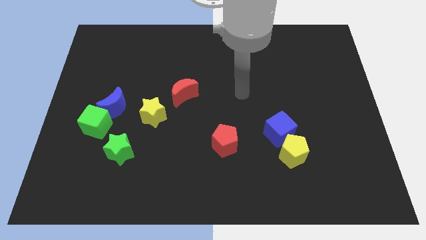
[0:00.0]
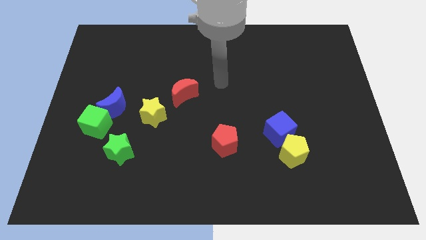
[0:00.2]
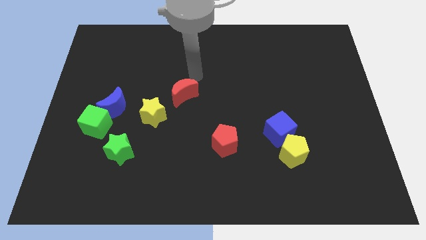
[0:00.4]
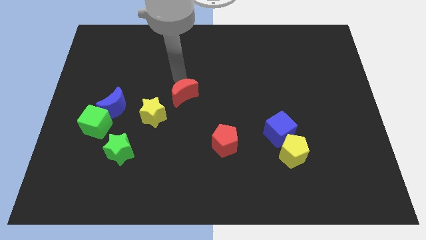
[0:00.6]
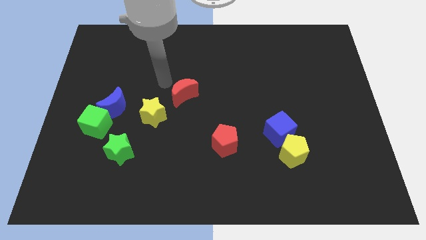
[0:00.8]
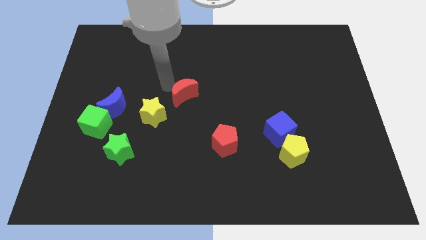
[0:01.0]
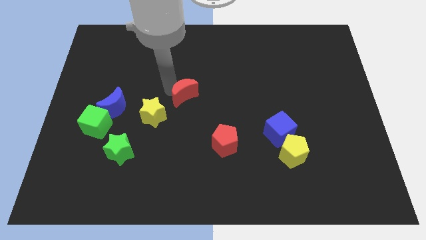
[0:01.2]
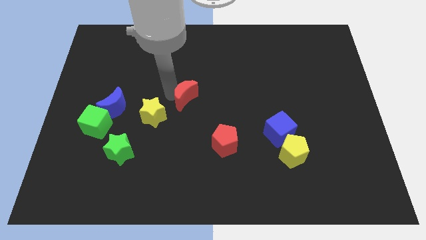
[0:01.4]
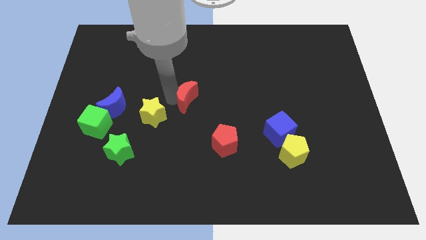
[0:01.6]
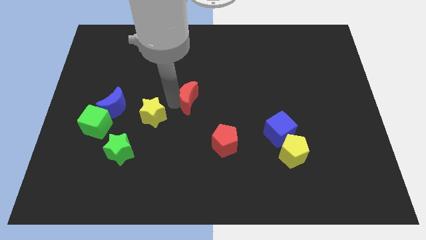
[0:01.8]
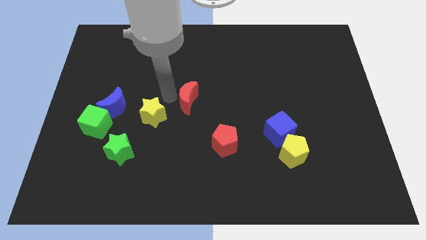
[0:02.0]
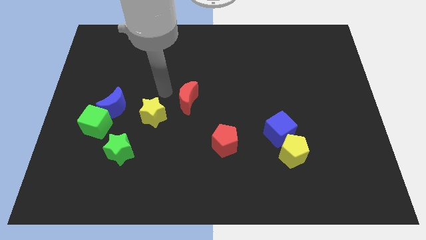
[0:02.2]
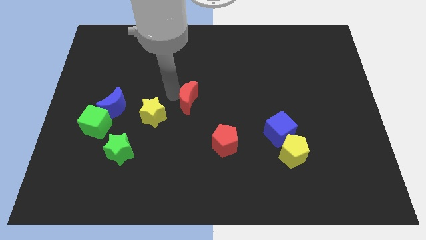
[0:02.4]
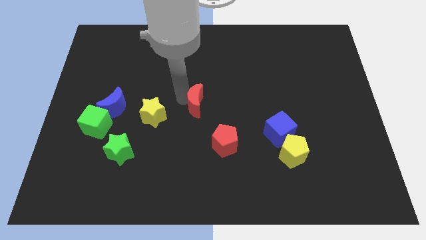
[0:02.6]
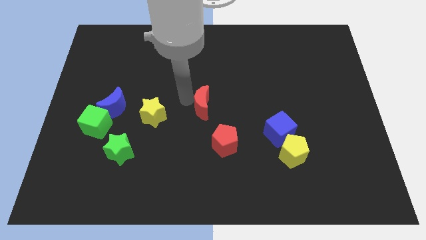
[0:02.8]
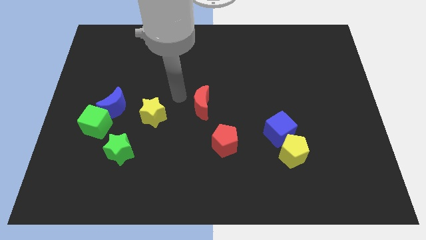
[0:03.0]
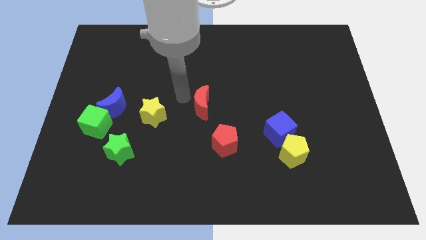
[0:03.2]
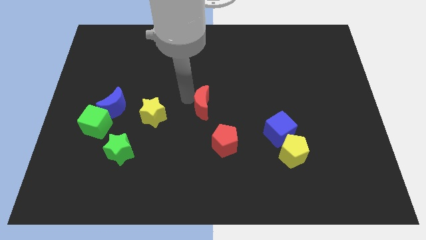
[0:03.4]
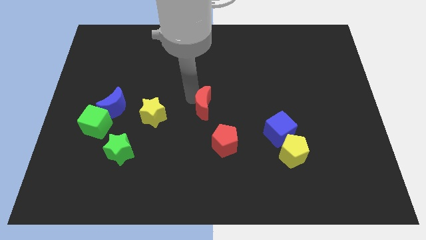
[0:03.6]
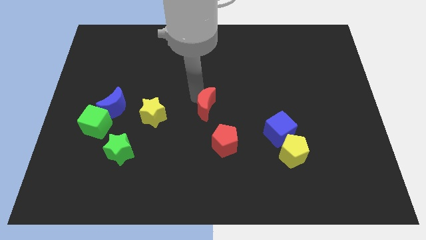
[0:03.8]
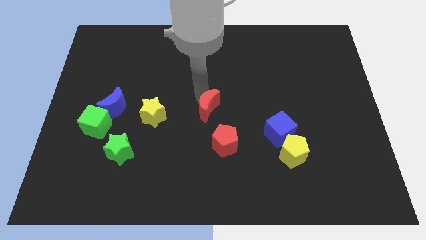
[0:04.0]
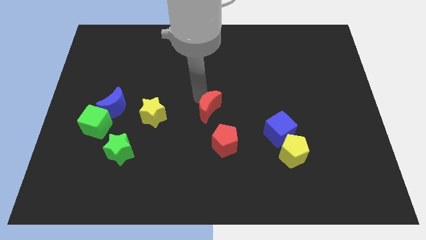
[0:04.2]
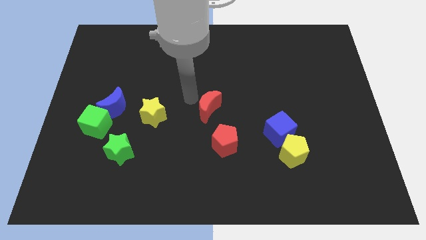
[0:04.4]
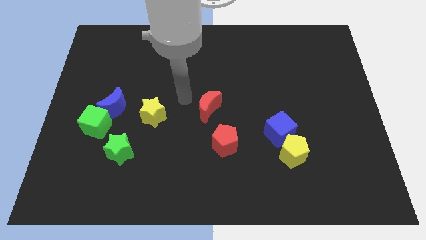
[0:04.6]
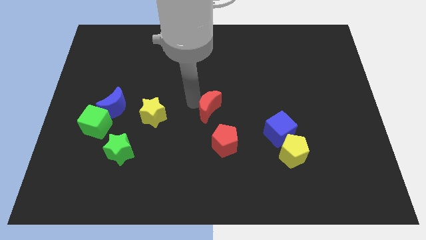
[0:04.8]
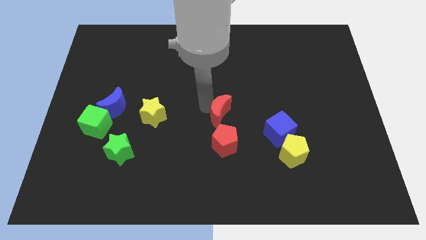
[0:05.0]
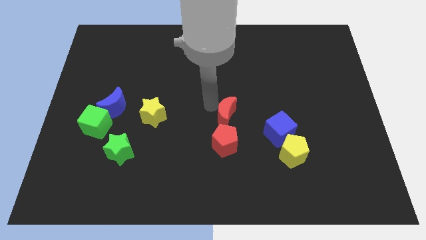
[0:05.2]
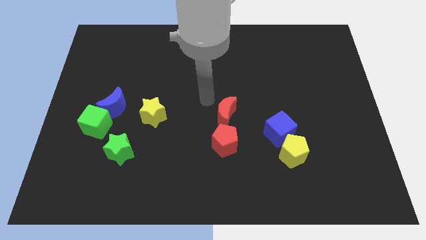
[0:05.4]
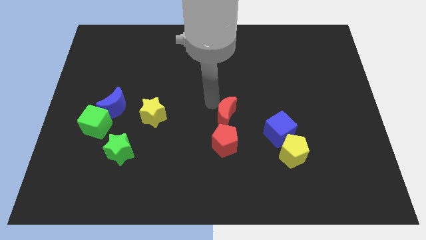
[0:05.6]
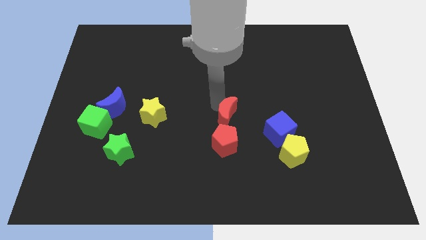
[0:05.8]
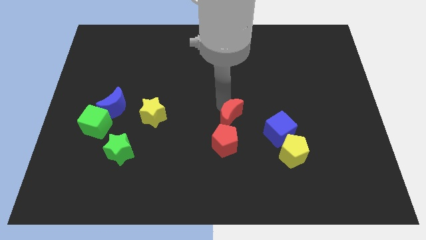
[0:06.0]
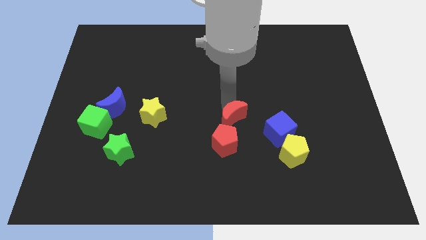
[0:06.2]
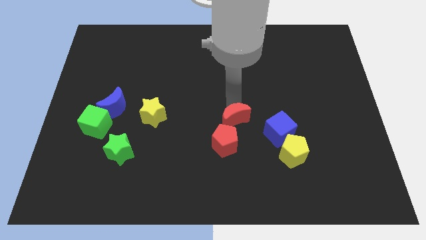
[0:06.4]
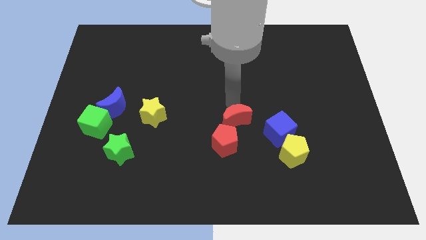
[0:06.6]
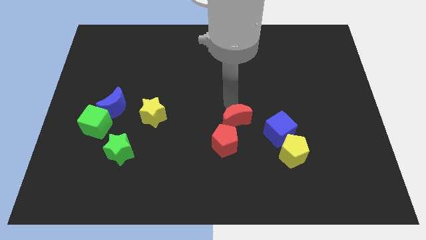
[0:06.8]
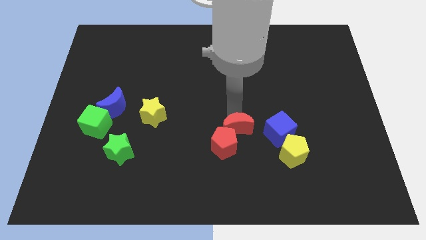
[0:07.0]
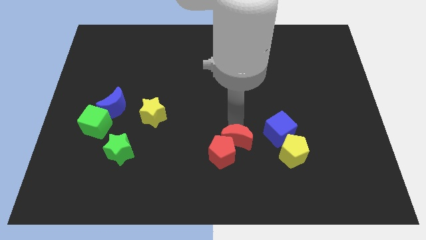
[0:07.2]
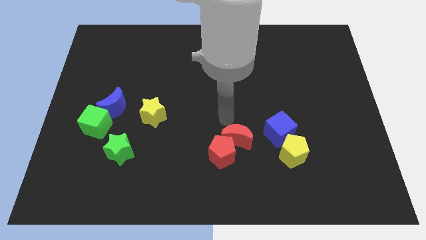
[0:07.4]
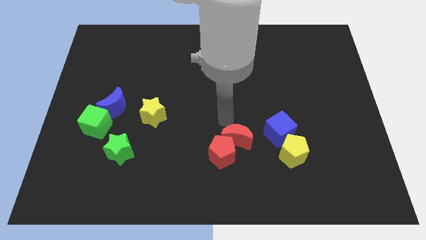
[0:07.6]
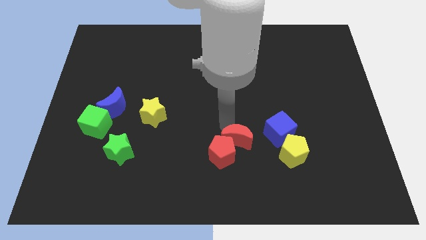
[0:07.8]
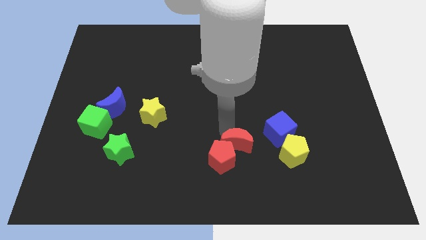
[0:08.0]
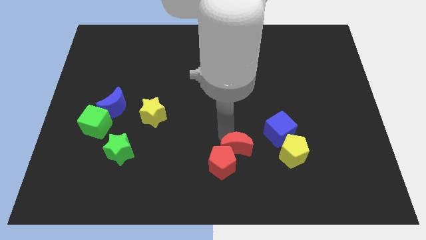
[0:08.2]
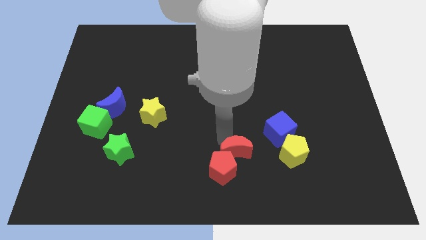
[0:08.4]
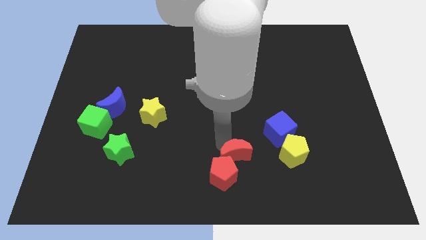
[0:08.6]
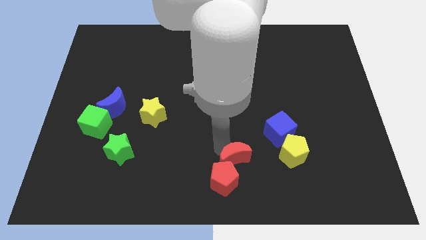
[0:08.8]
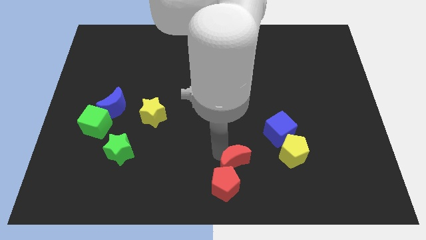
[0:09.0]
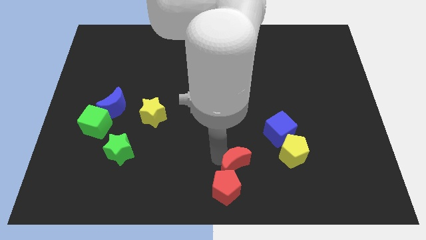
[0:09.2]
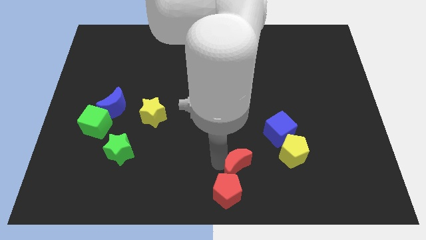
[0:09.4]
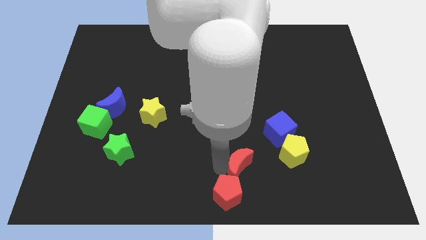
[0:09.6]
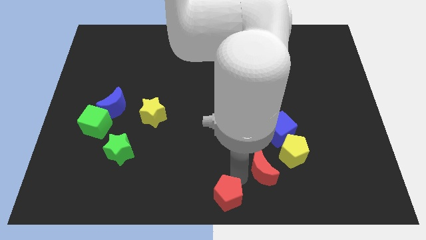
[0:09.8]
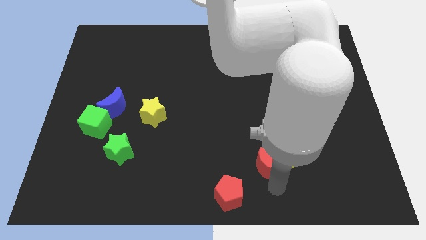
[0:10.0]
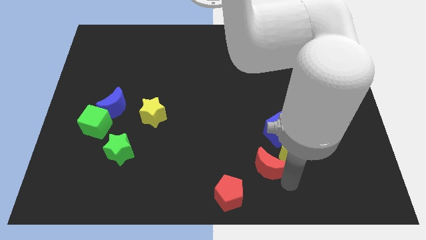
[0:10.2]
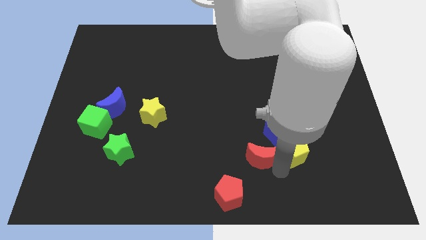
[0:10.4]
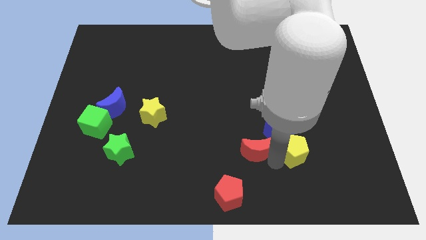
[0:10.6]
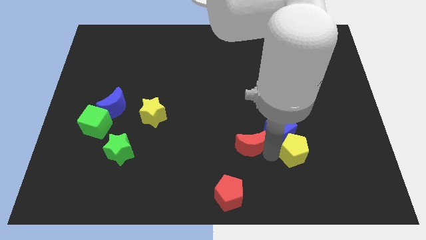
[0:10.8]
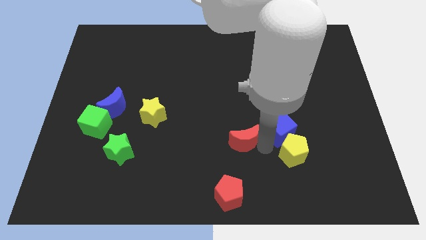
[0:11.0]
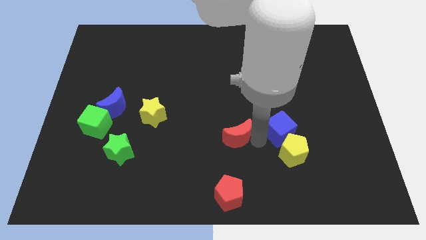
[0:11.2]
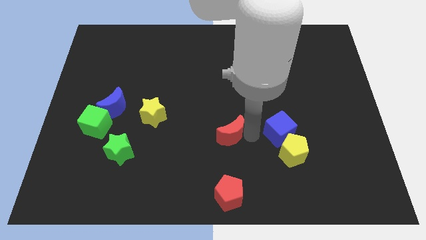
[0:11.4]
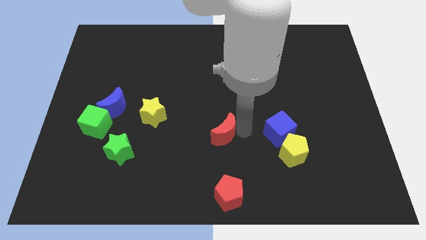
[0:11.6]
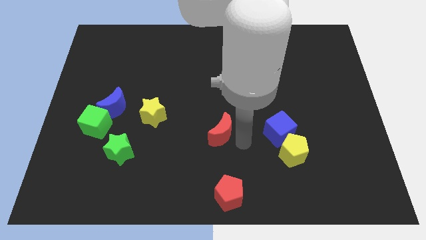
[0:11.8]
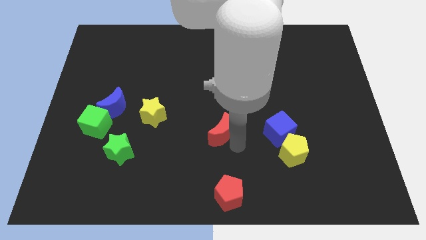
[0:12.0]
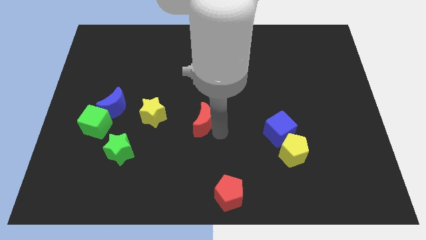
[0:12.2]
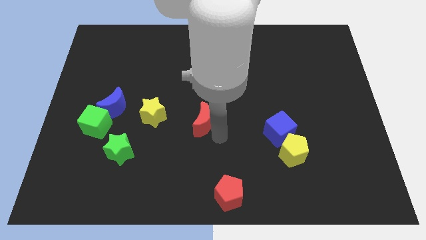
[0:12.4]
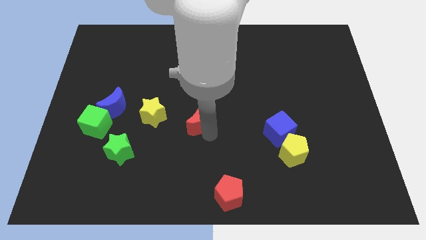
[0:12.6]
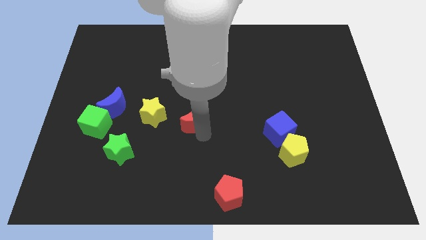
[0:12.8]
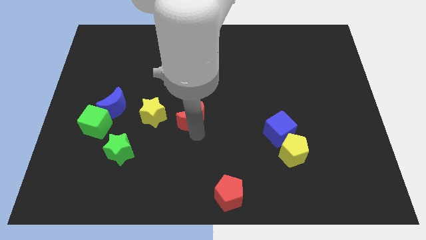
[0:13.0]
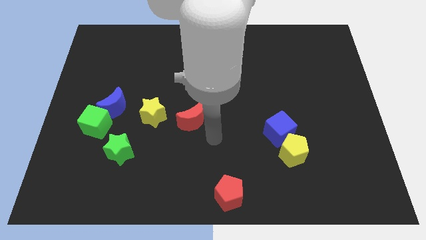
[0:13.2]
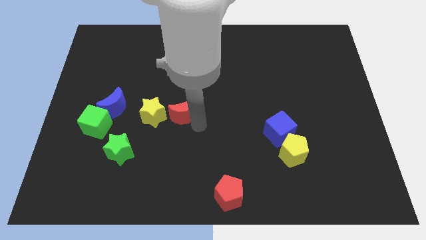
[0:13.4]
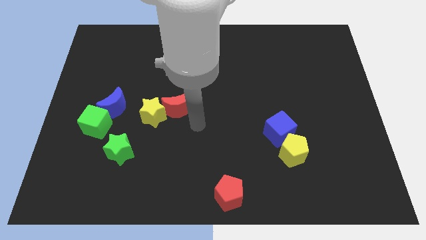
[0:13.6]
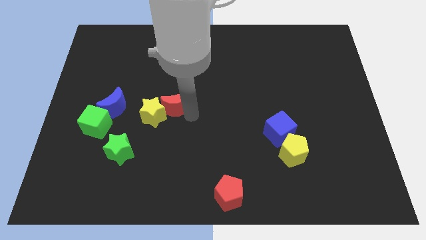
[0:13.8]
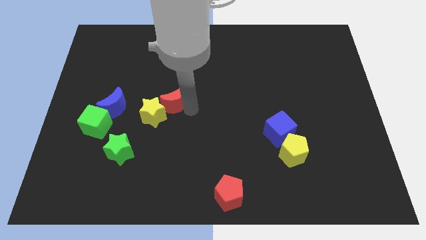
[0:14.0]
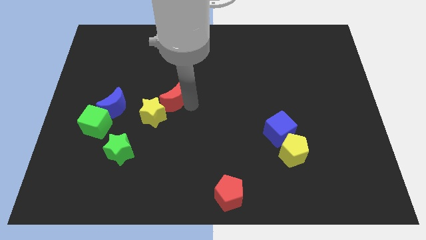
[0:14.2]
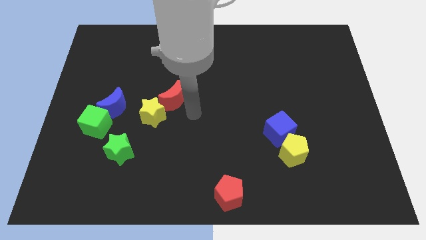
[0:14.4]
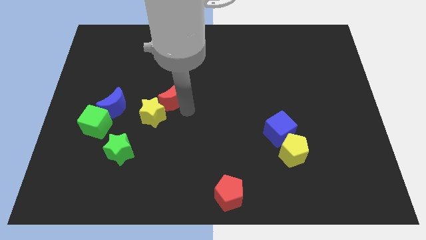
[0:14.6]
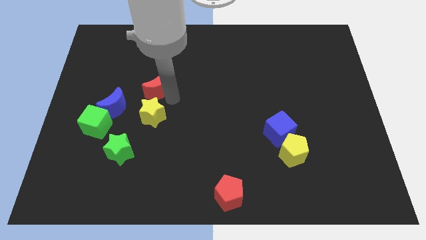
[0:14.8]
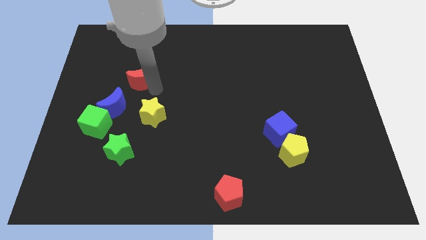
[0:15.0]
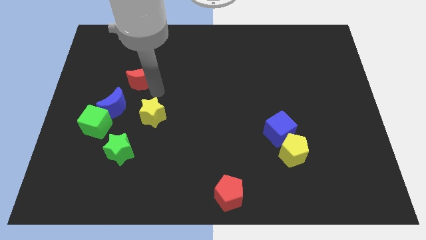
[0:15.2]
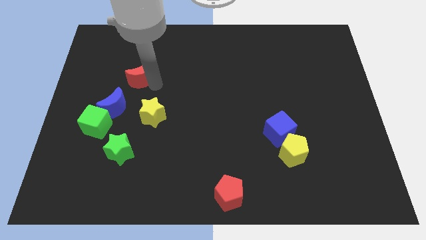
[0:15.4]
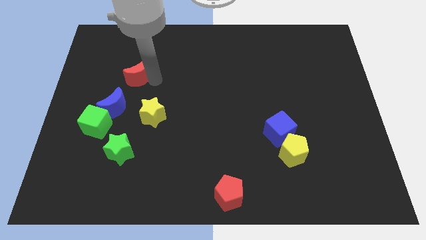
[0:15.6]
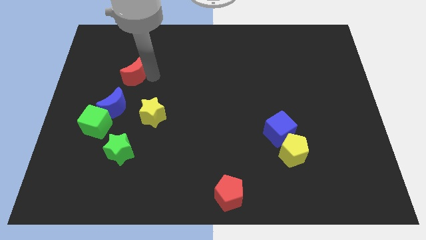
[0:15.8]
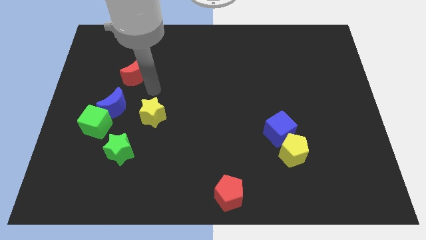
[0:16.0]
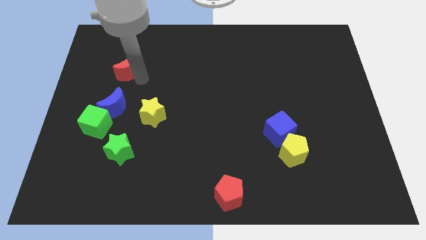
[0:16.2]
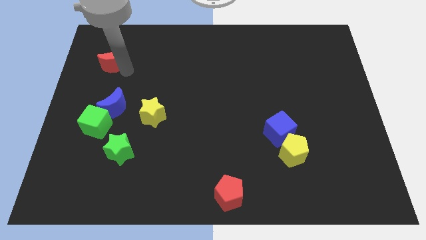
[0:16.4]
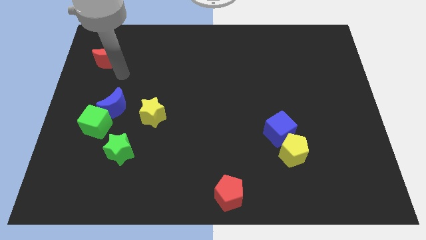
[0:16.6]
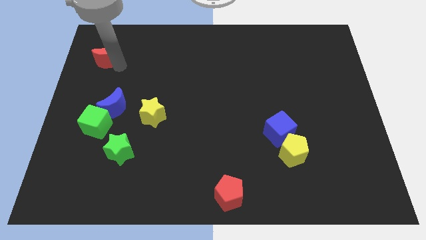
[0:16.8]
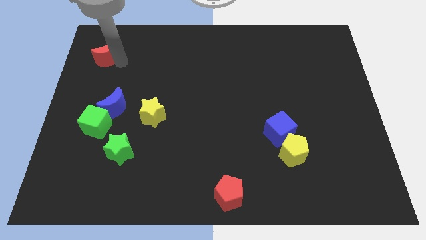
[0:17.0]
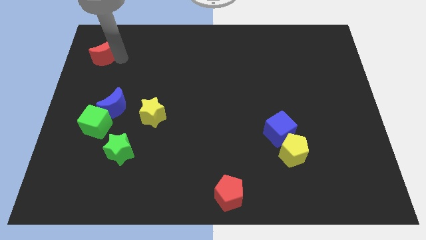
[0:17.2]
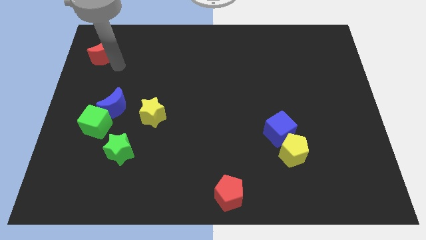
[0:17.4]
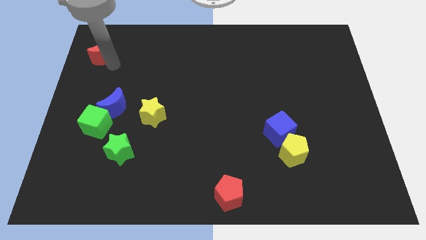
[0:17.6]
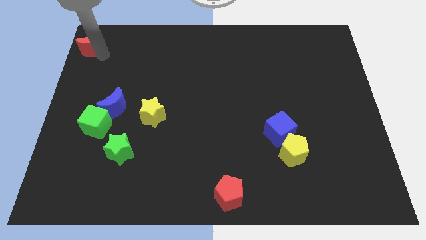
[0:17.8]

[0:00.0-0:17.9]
move the red moon to the top left corner
